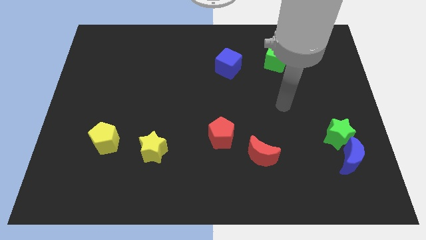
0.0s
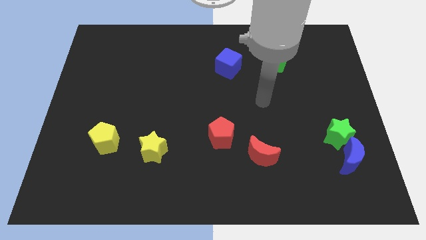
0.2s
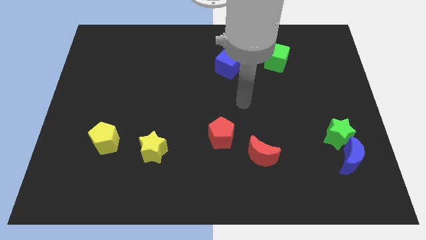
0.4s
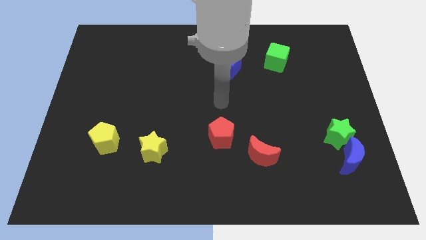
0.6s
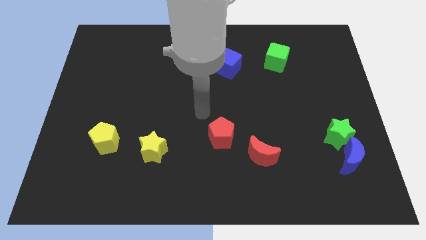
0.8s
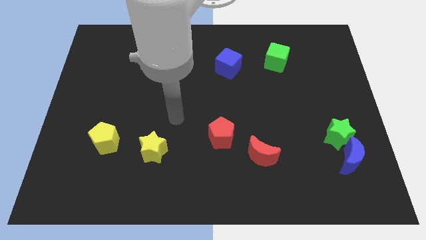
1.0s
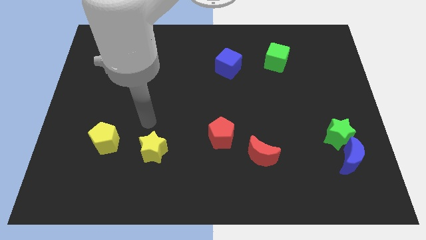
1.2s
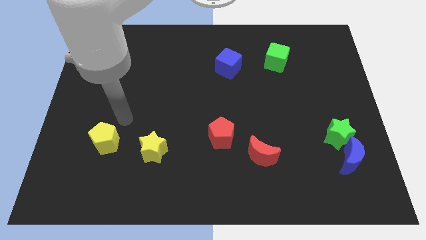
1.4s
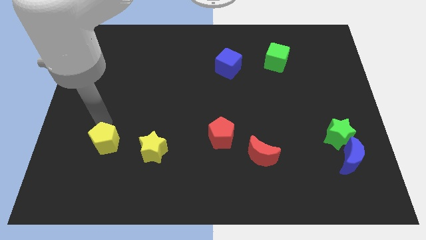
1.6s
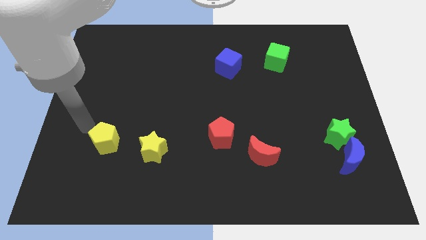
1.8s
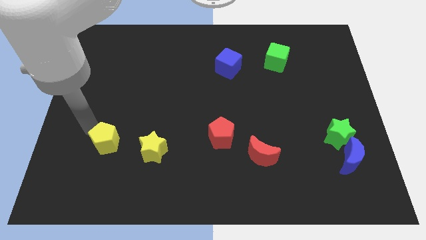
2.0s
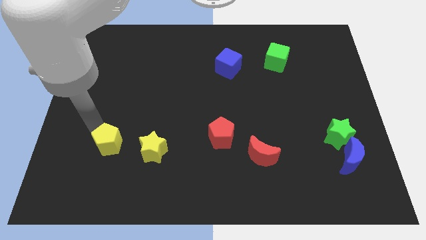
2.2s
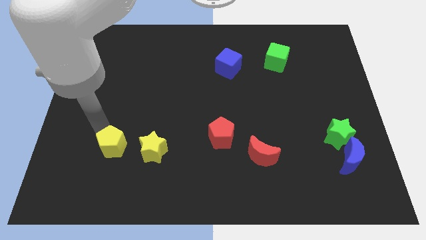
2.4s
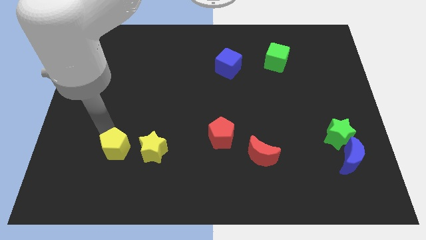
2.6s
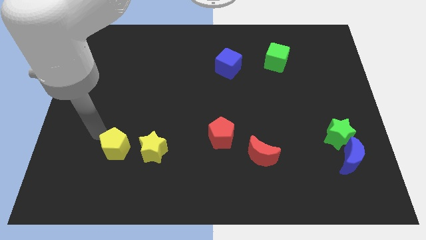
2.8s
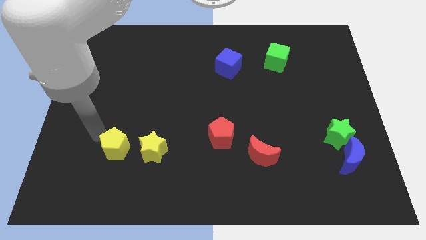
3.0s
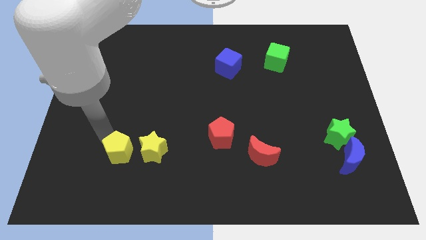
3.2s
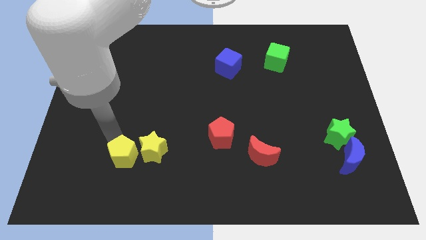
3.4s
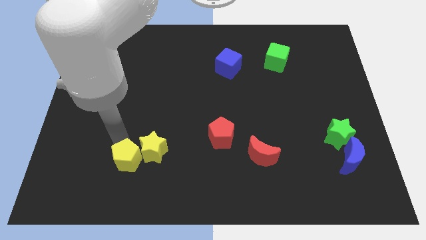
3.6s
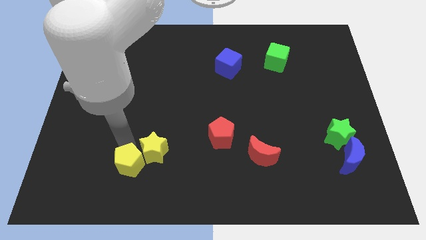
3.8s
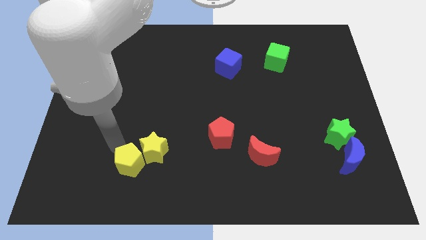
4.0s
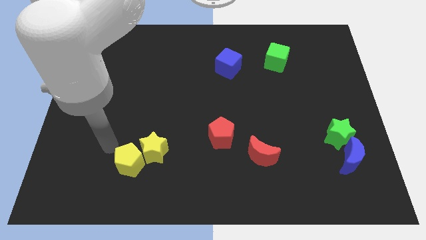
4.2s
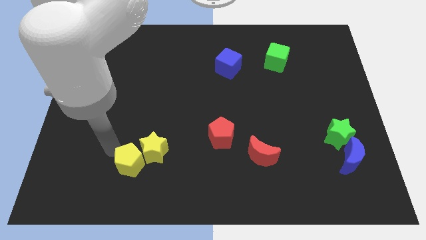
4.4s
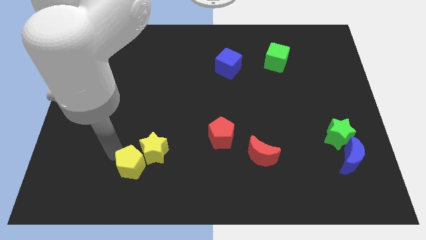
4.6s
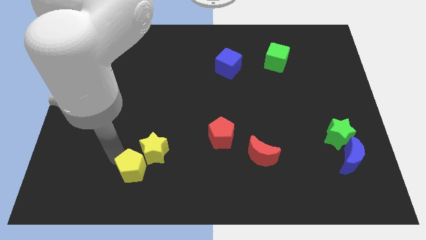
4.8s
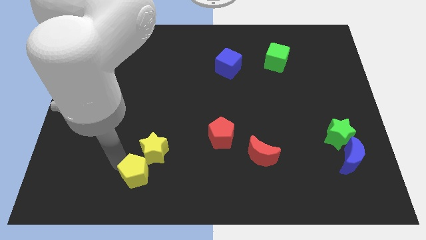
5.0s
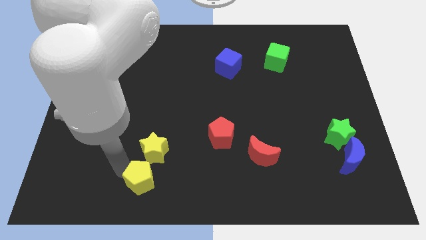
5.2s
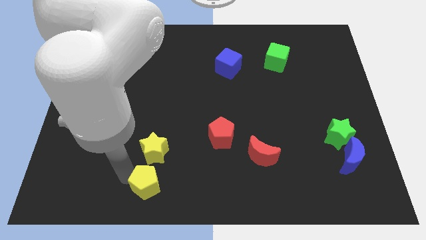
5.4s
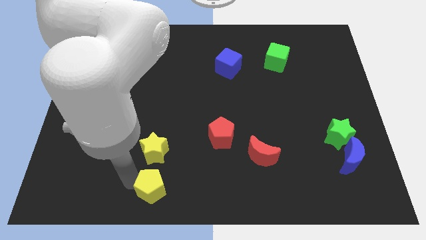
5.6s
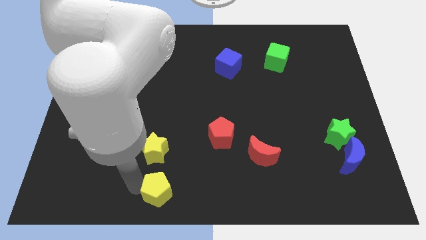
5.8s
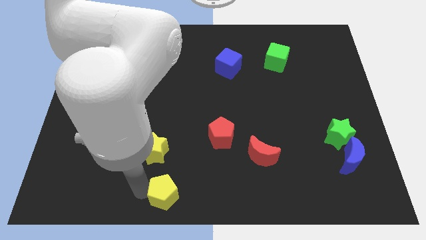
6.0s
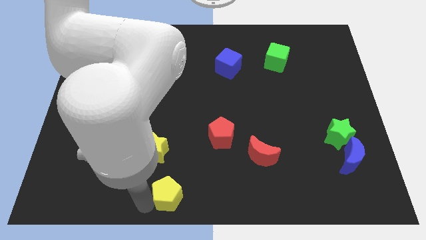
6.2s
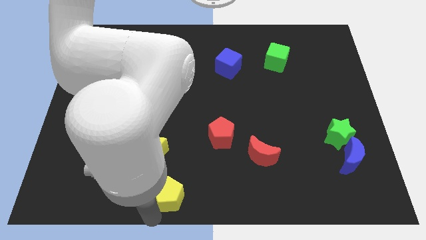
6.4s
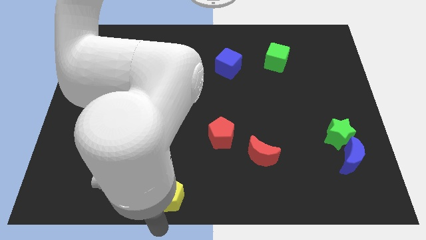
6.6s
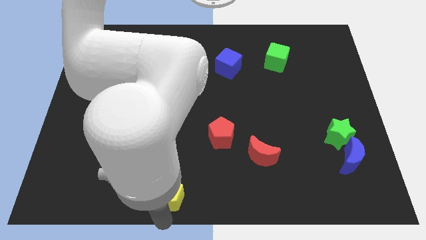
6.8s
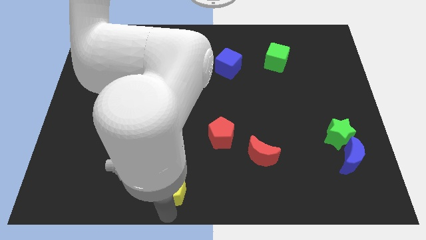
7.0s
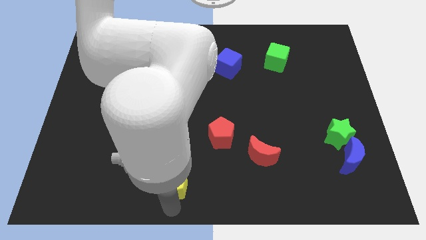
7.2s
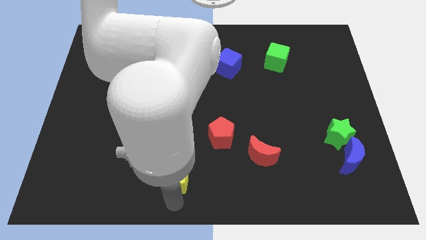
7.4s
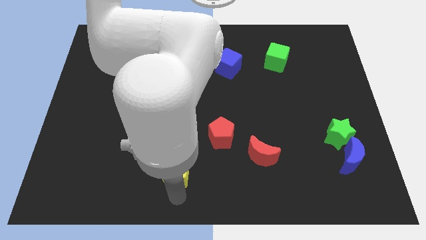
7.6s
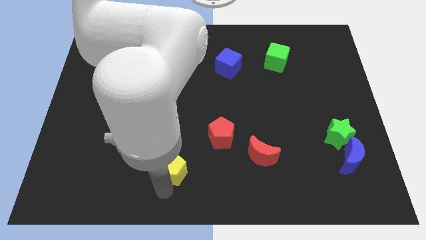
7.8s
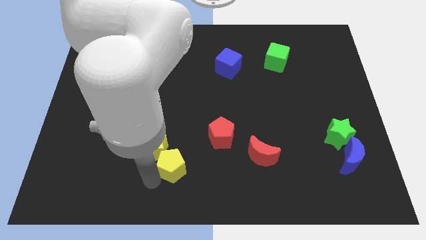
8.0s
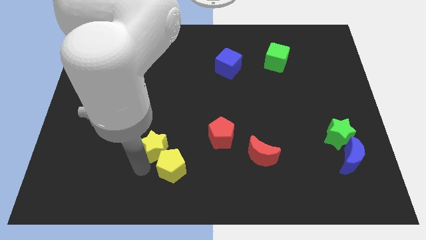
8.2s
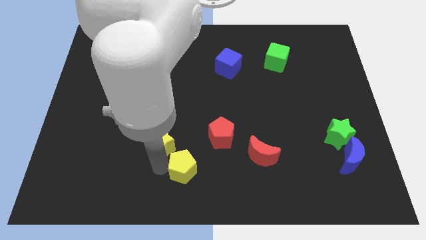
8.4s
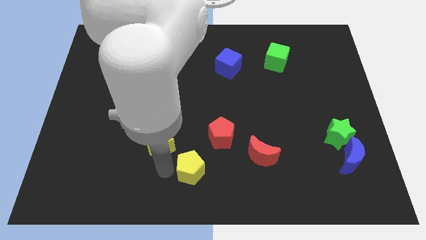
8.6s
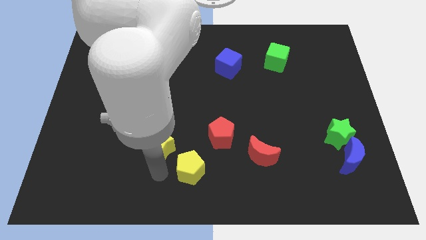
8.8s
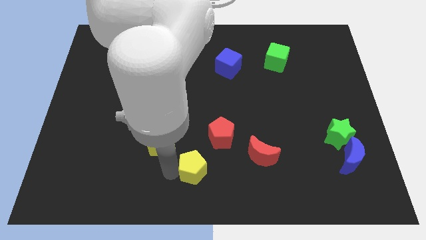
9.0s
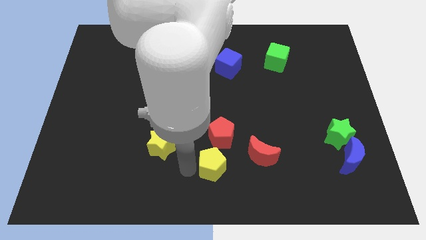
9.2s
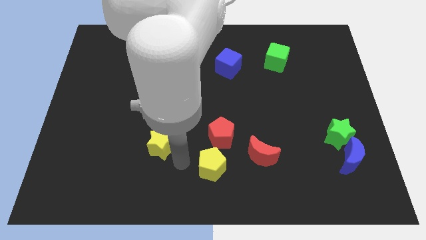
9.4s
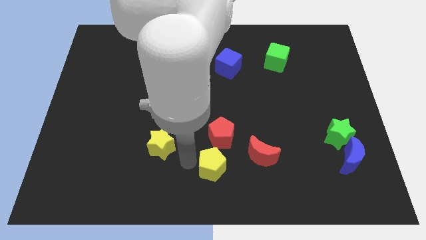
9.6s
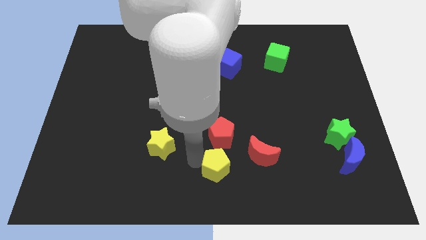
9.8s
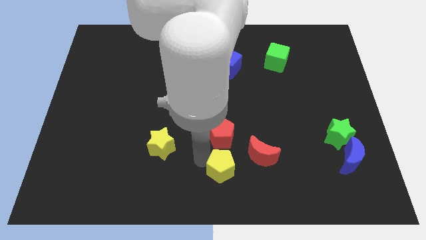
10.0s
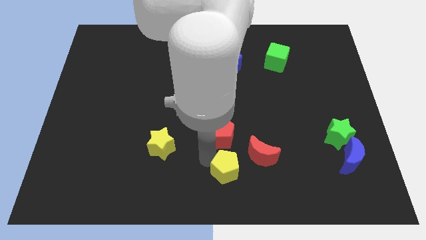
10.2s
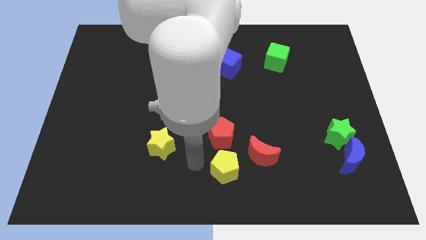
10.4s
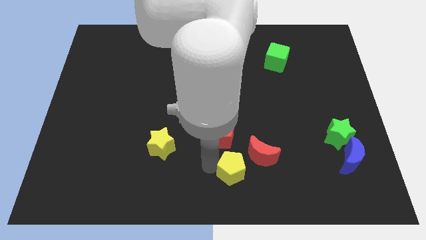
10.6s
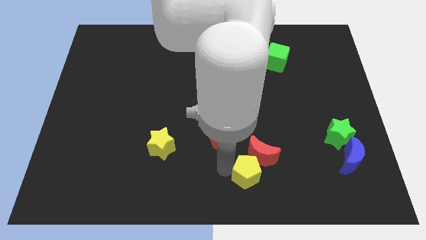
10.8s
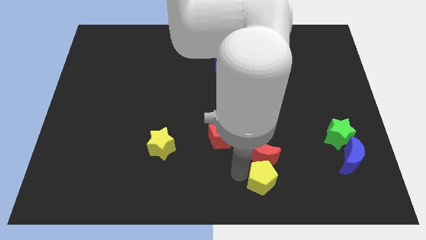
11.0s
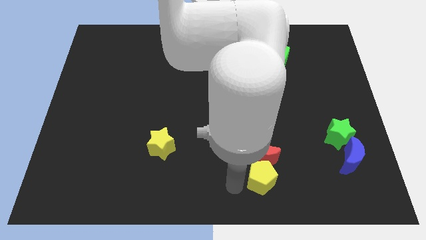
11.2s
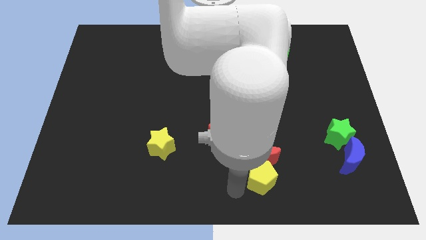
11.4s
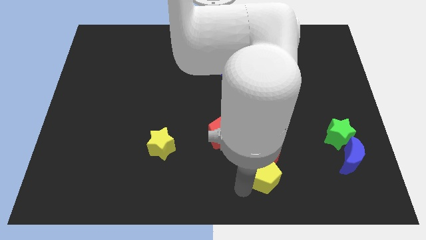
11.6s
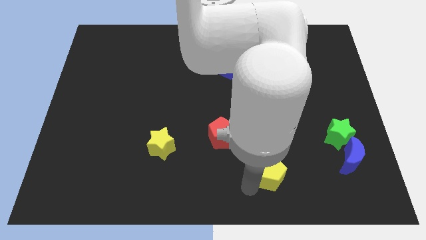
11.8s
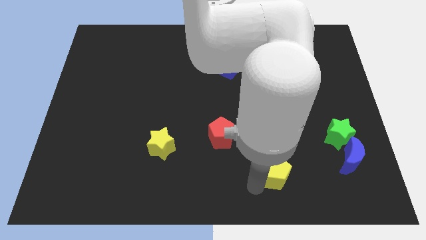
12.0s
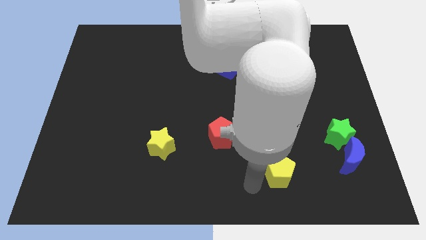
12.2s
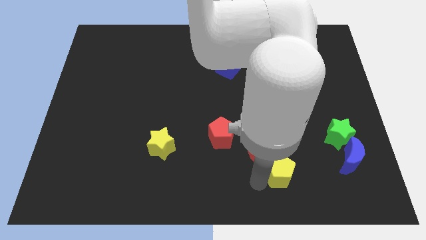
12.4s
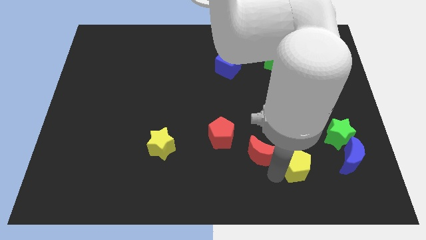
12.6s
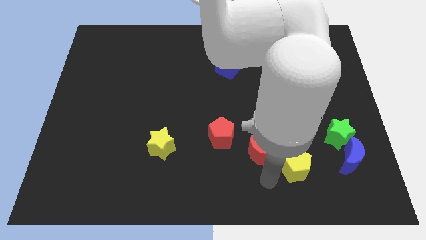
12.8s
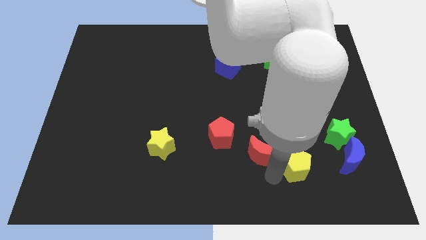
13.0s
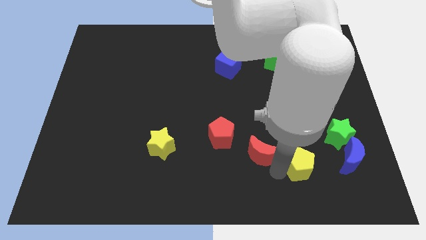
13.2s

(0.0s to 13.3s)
push the yellow pentagon to the bottom left of the green star
